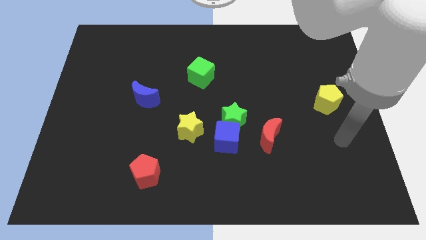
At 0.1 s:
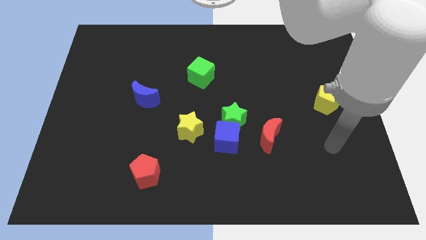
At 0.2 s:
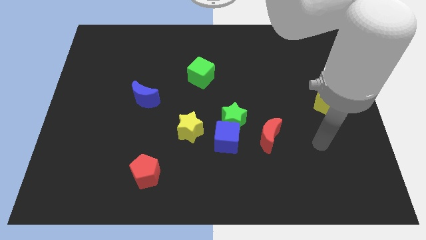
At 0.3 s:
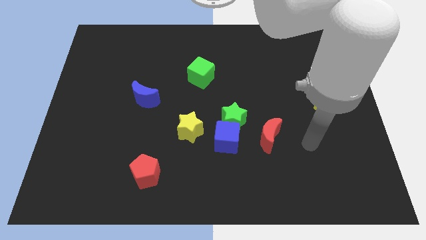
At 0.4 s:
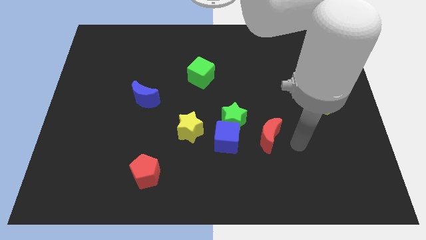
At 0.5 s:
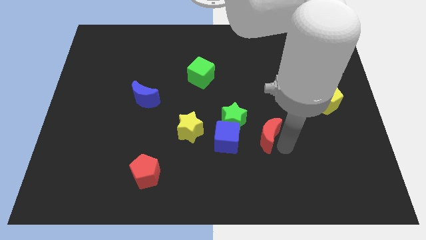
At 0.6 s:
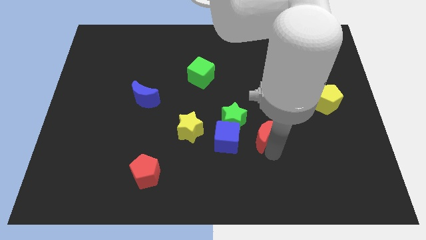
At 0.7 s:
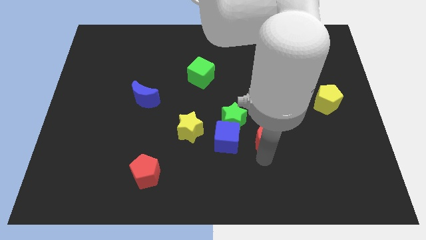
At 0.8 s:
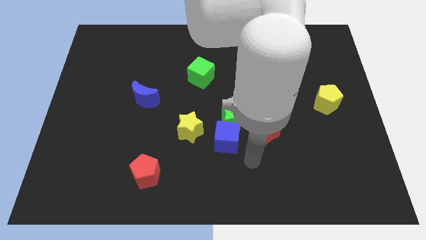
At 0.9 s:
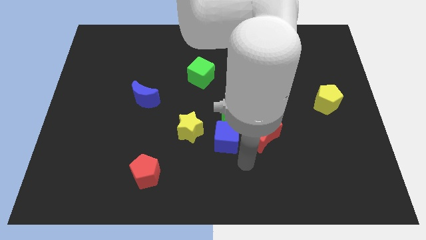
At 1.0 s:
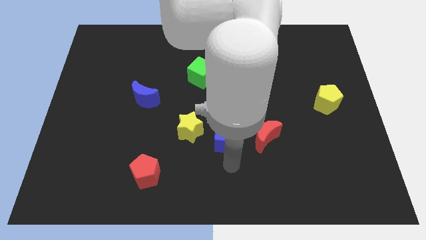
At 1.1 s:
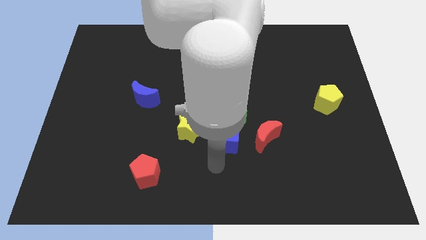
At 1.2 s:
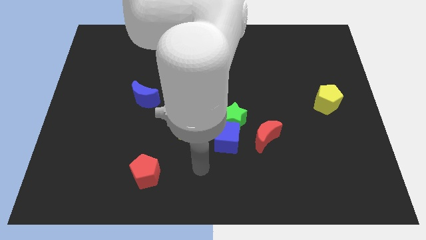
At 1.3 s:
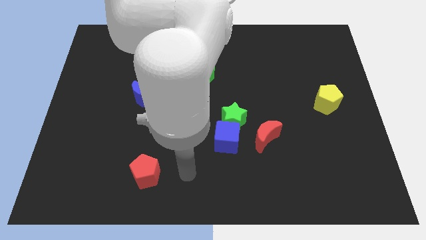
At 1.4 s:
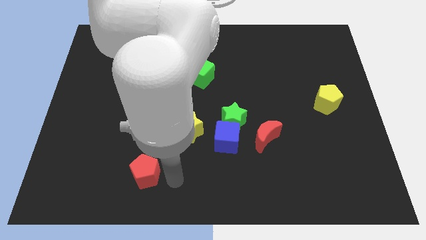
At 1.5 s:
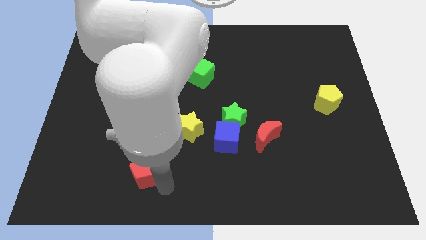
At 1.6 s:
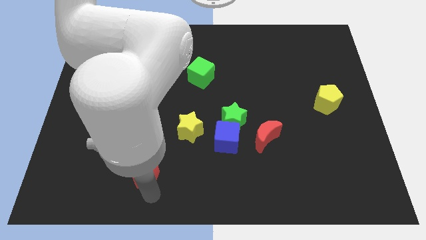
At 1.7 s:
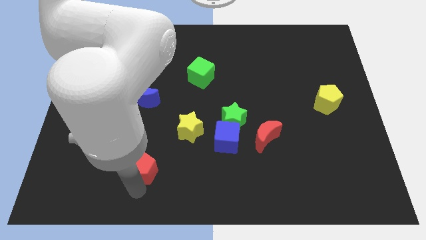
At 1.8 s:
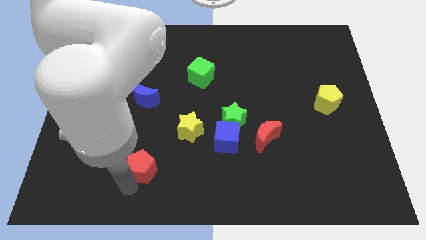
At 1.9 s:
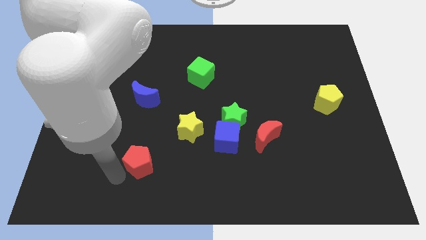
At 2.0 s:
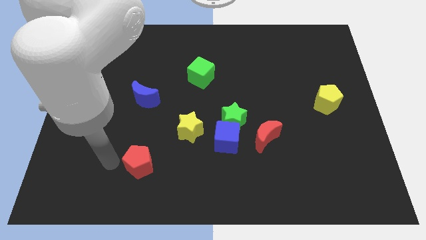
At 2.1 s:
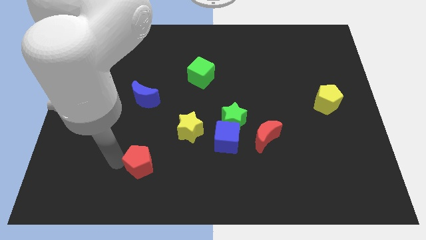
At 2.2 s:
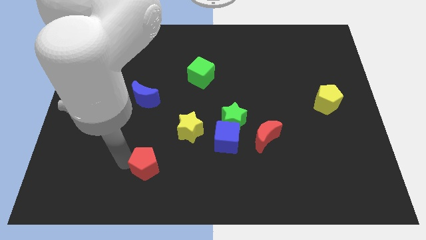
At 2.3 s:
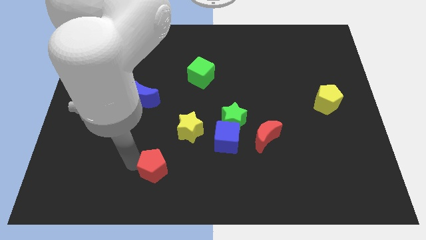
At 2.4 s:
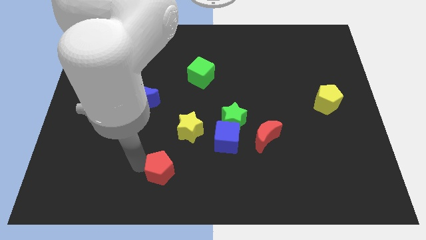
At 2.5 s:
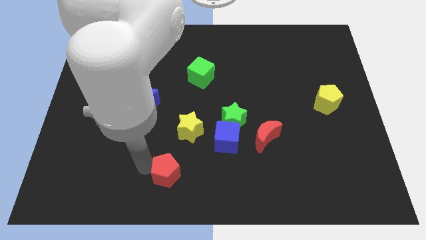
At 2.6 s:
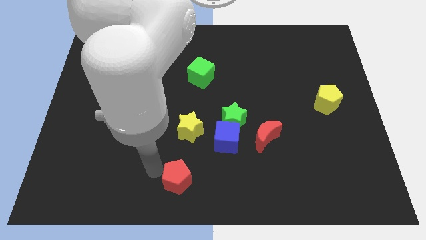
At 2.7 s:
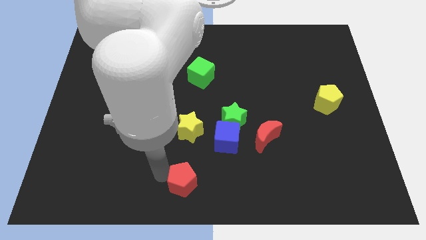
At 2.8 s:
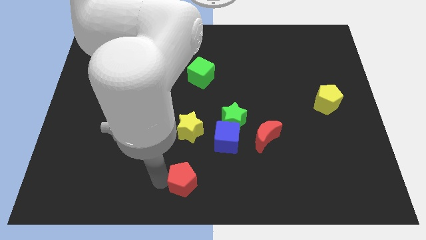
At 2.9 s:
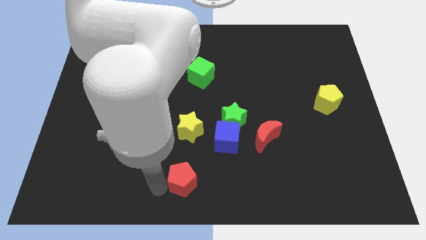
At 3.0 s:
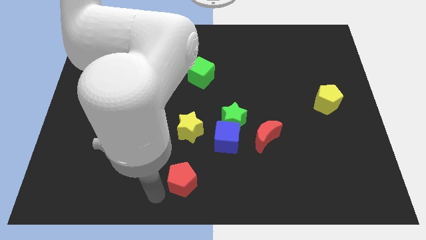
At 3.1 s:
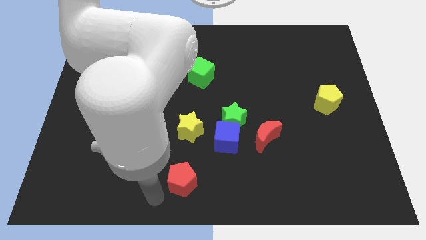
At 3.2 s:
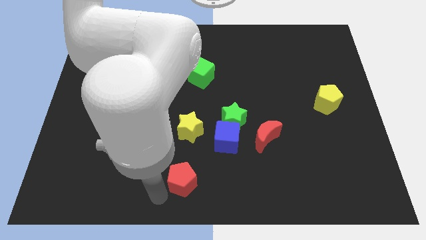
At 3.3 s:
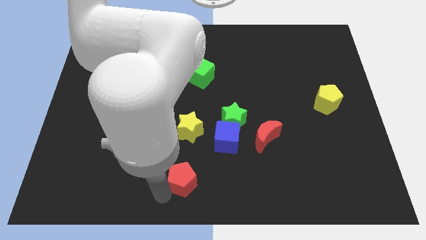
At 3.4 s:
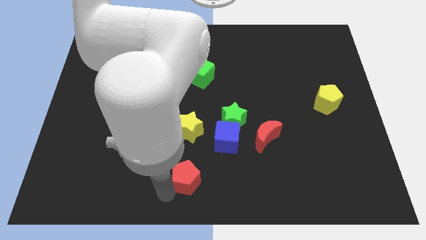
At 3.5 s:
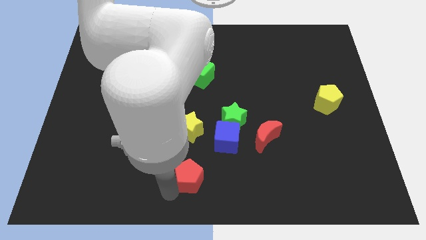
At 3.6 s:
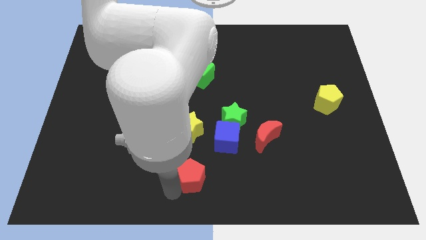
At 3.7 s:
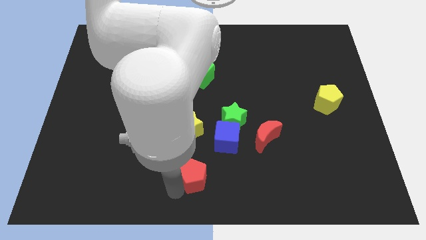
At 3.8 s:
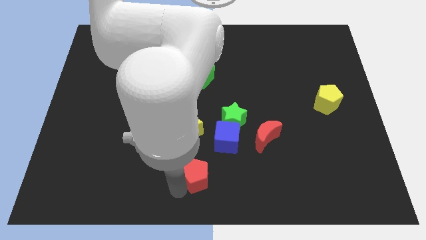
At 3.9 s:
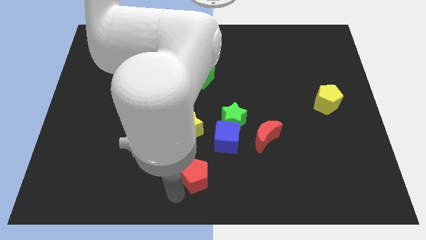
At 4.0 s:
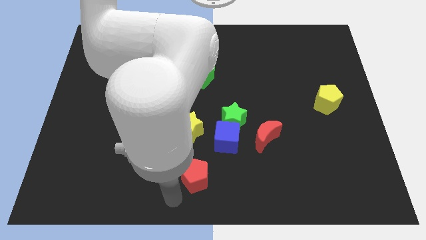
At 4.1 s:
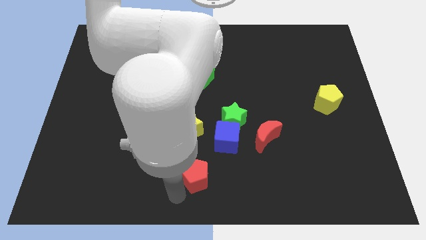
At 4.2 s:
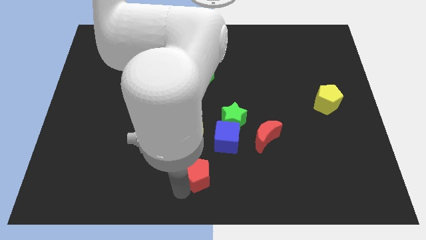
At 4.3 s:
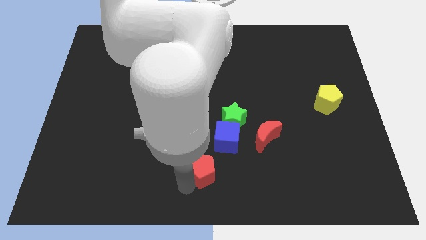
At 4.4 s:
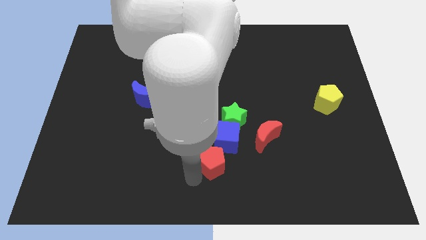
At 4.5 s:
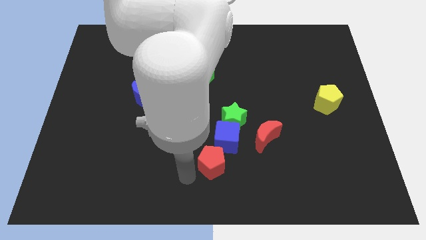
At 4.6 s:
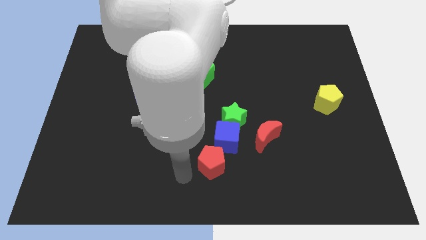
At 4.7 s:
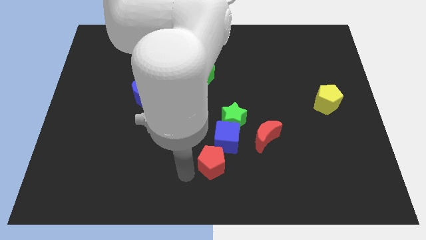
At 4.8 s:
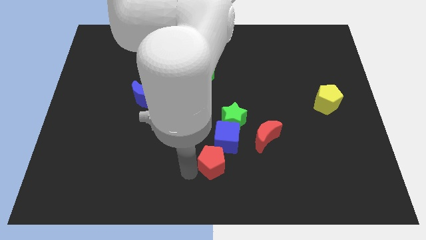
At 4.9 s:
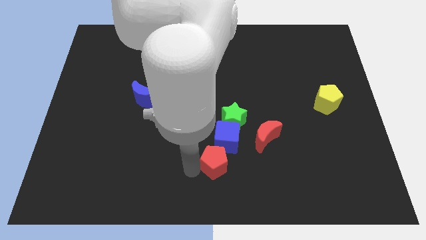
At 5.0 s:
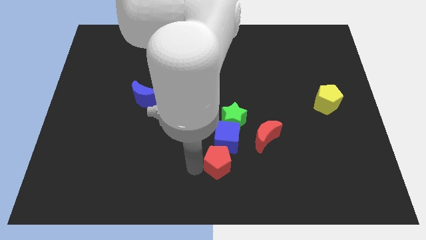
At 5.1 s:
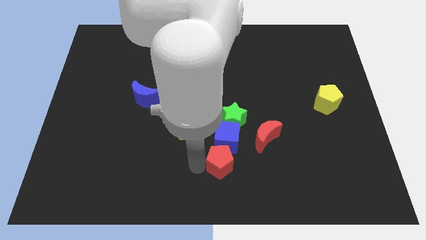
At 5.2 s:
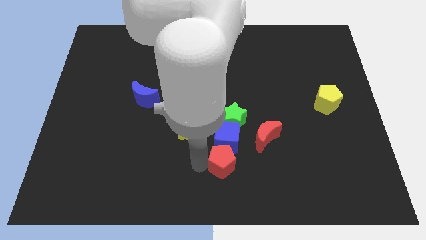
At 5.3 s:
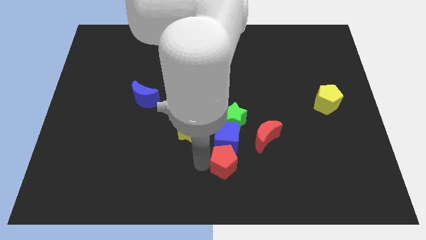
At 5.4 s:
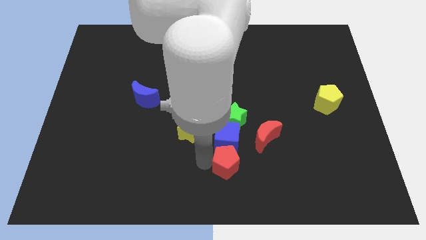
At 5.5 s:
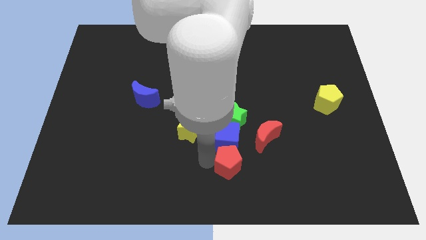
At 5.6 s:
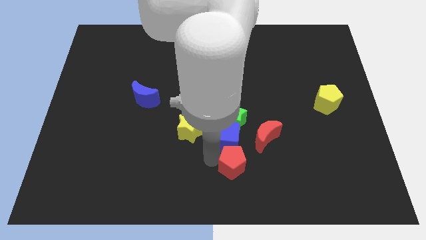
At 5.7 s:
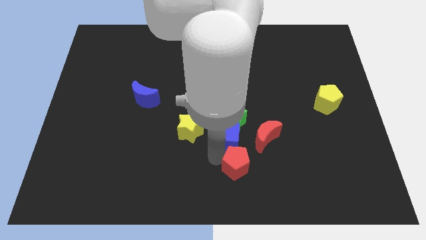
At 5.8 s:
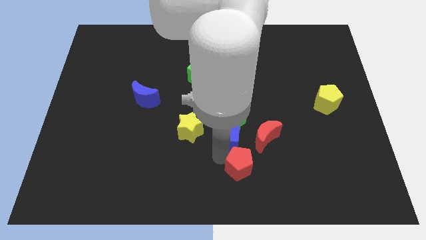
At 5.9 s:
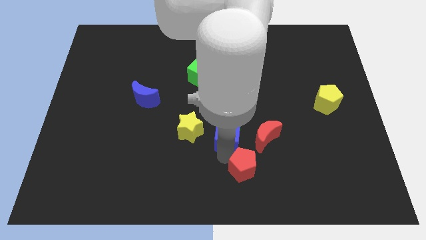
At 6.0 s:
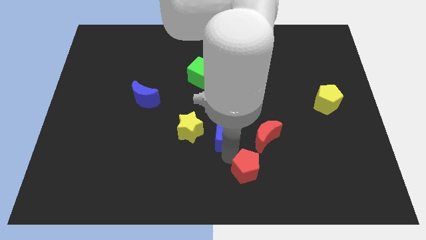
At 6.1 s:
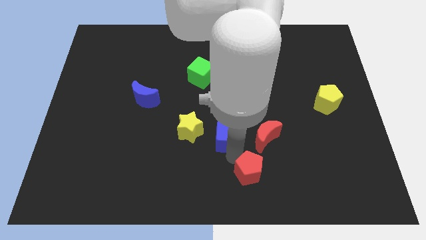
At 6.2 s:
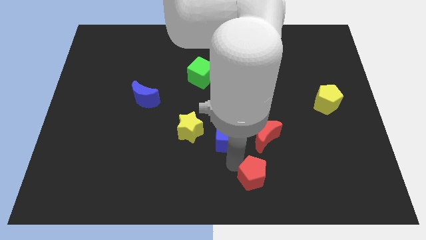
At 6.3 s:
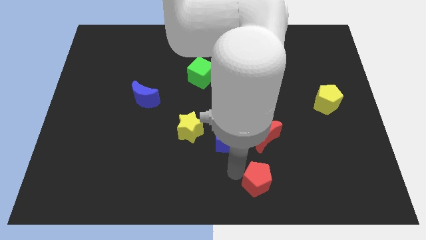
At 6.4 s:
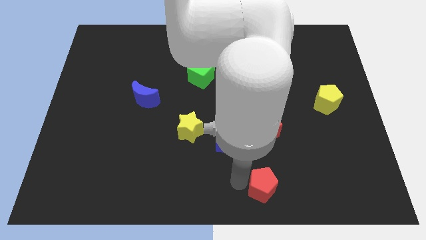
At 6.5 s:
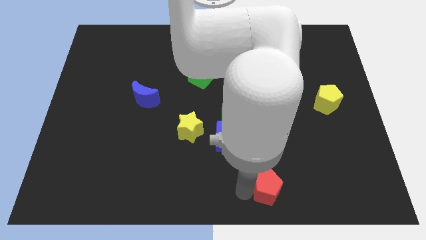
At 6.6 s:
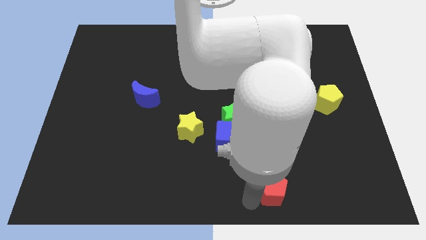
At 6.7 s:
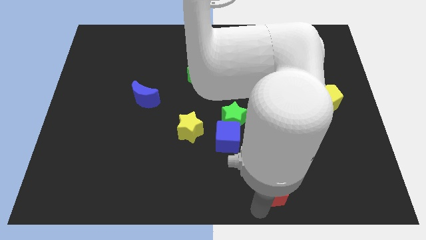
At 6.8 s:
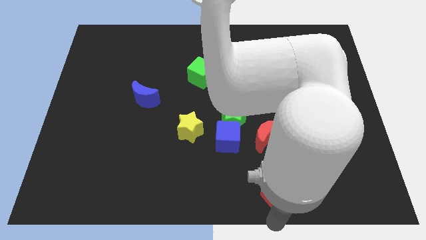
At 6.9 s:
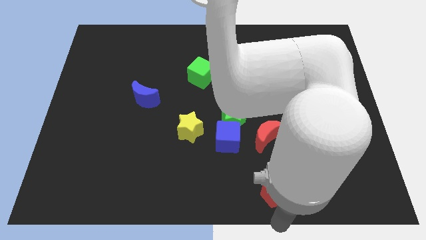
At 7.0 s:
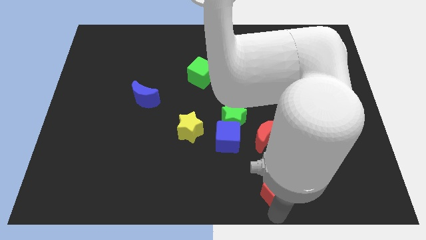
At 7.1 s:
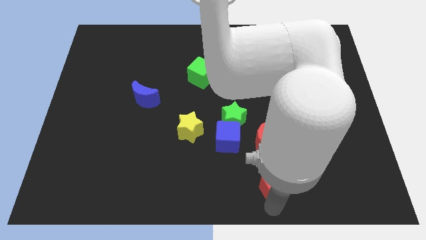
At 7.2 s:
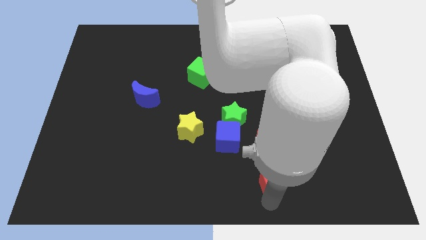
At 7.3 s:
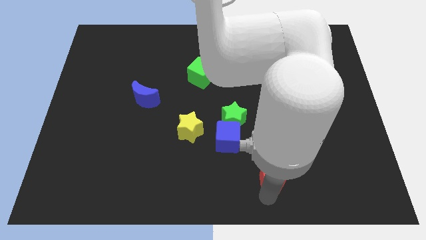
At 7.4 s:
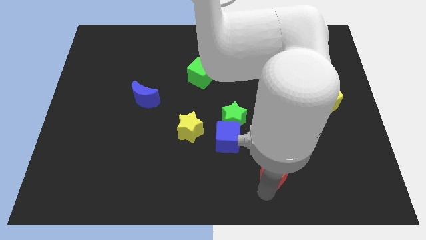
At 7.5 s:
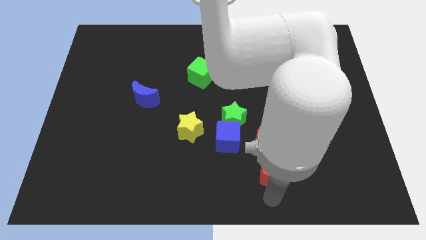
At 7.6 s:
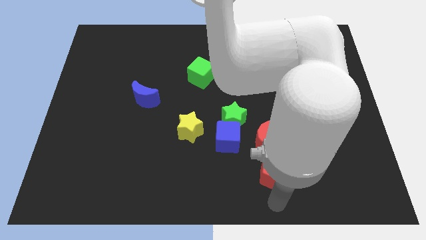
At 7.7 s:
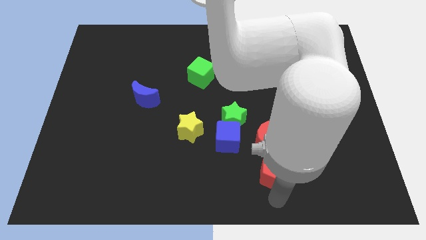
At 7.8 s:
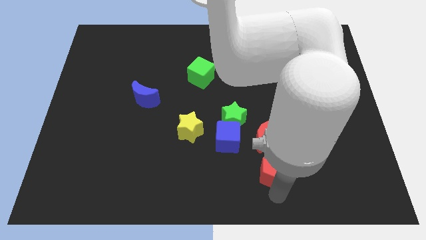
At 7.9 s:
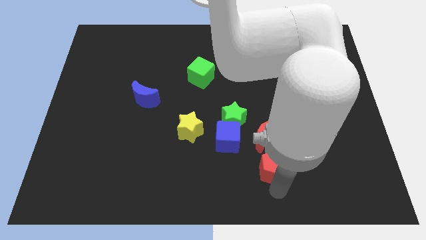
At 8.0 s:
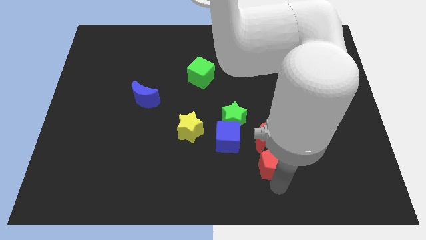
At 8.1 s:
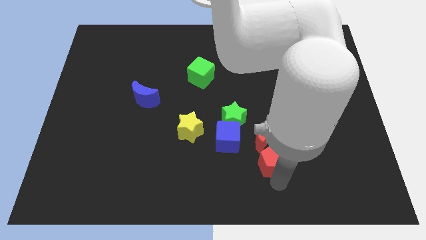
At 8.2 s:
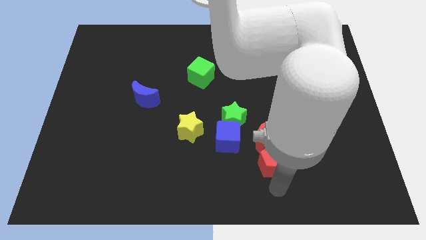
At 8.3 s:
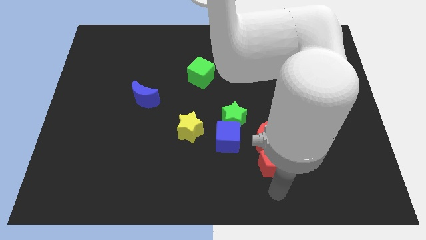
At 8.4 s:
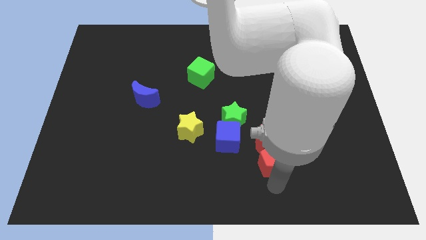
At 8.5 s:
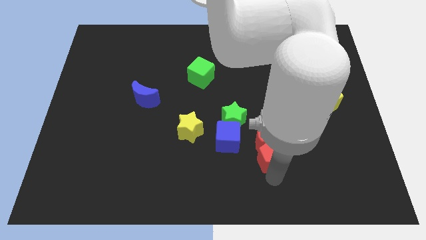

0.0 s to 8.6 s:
move the red pentagon towards the red moon
